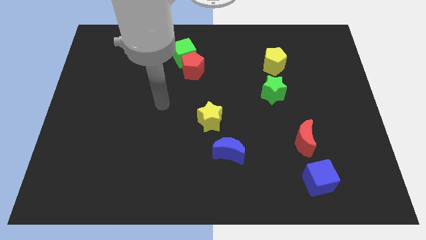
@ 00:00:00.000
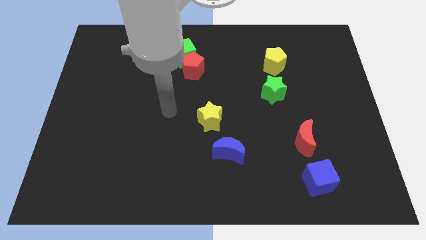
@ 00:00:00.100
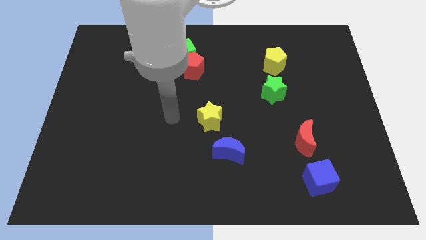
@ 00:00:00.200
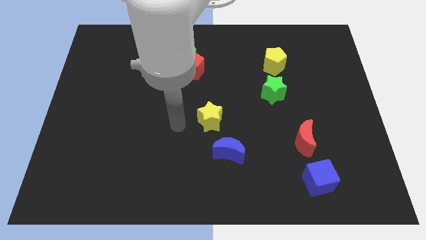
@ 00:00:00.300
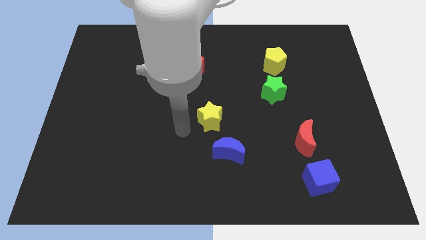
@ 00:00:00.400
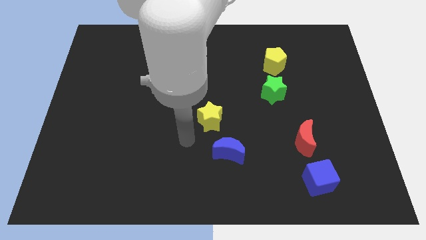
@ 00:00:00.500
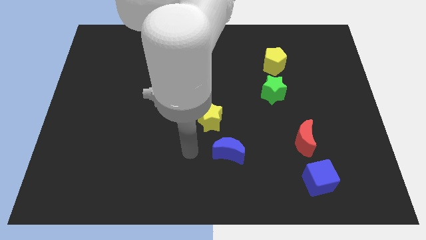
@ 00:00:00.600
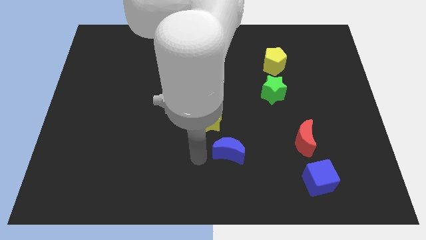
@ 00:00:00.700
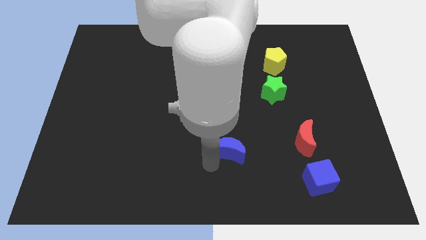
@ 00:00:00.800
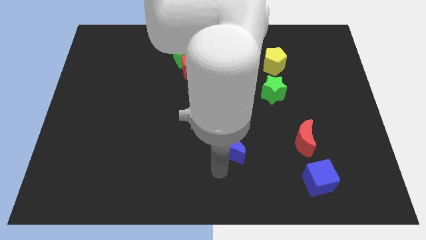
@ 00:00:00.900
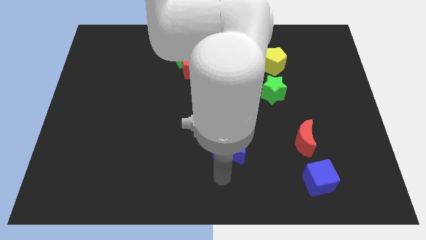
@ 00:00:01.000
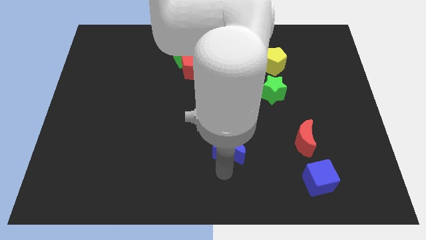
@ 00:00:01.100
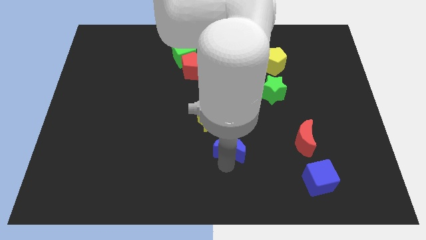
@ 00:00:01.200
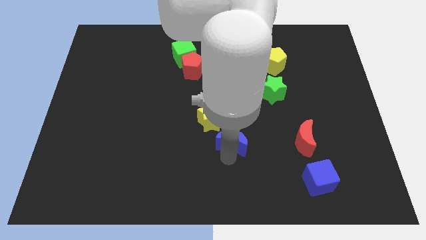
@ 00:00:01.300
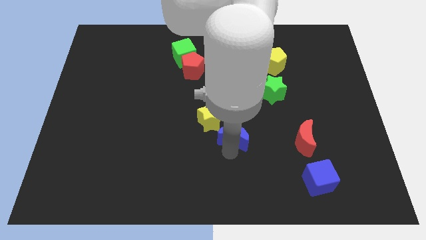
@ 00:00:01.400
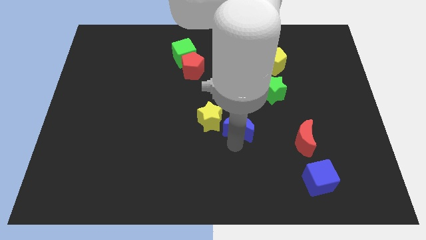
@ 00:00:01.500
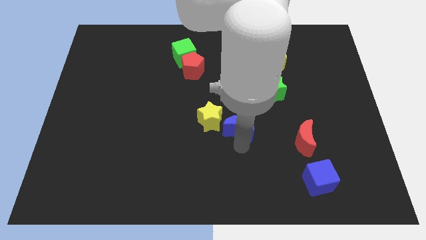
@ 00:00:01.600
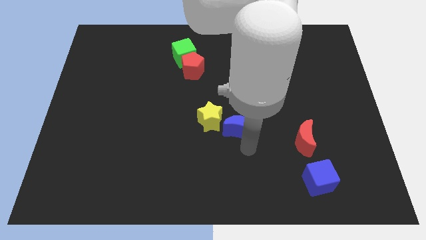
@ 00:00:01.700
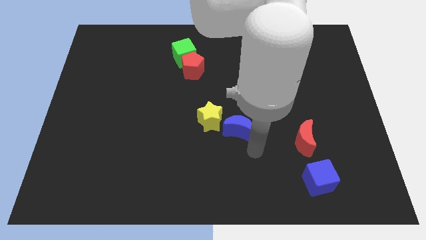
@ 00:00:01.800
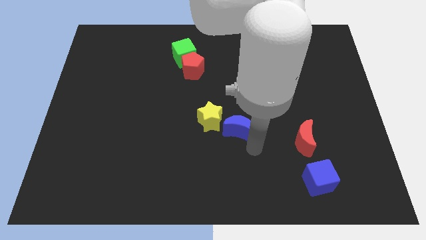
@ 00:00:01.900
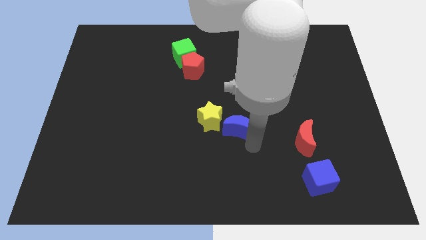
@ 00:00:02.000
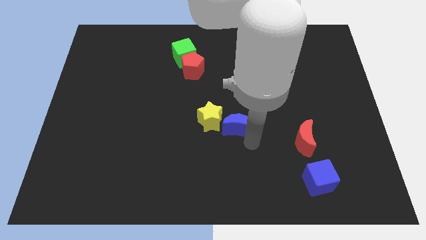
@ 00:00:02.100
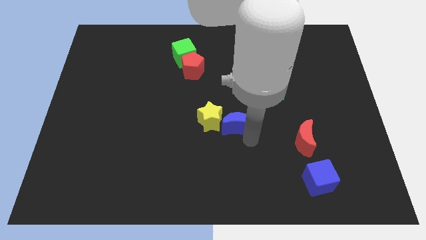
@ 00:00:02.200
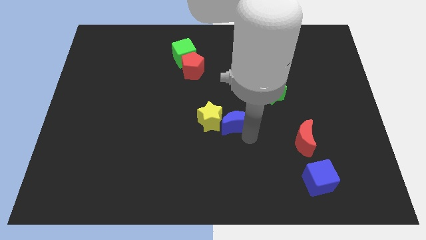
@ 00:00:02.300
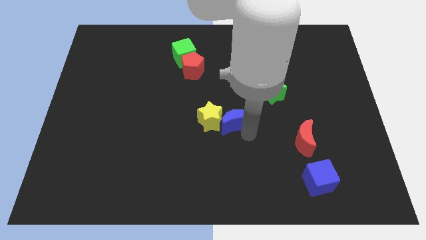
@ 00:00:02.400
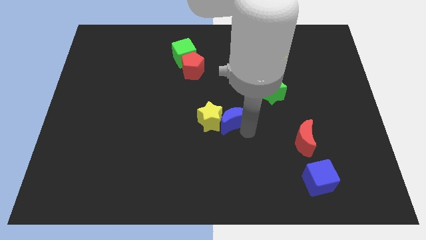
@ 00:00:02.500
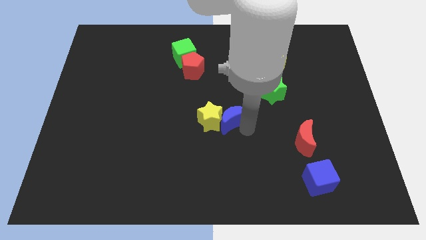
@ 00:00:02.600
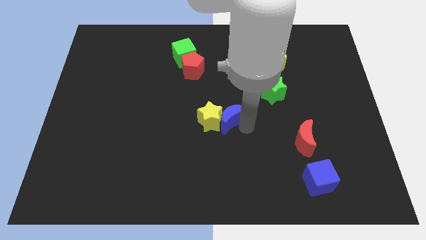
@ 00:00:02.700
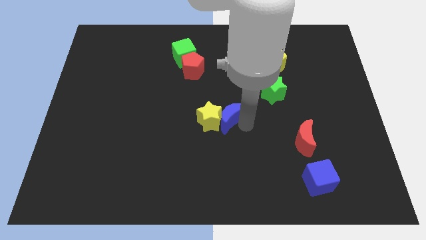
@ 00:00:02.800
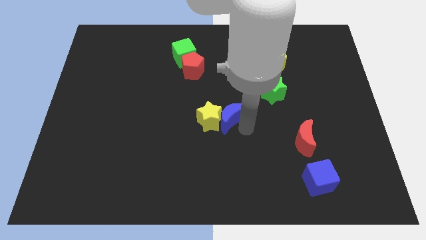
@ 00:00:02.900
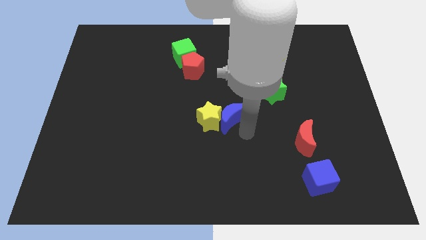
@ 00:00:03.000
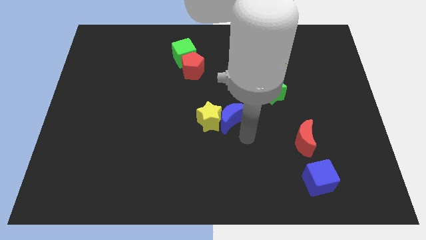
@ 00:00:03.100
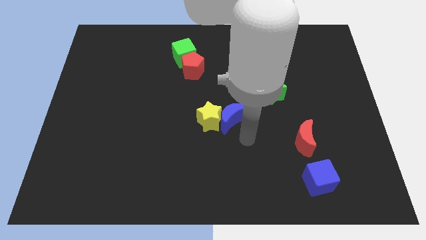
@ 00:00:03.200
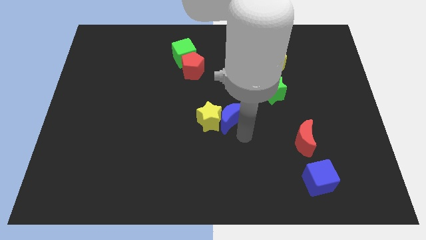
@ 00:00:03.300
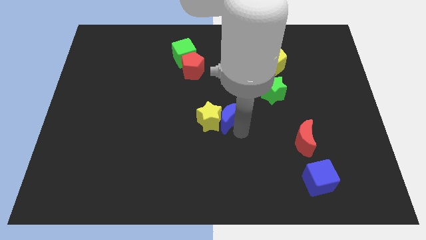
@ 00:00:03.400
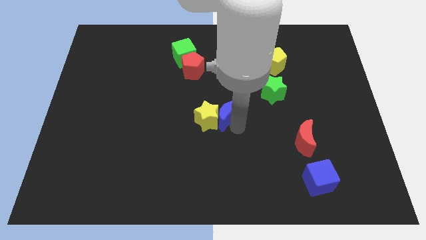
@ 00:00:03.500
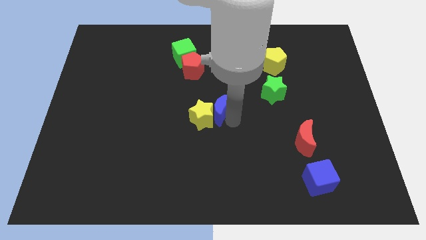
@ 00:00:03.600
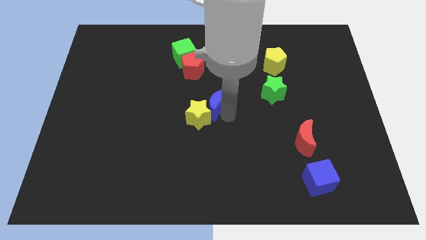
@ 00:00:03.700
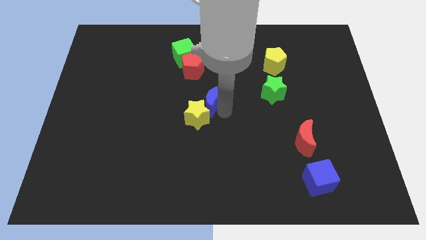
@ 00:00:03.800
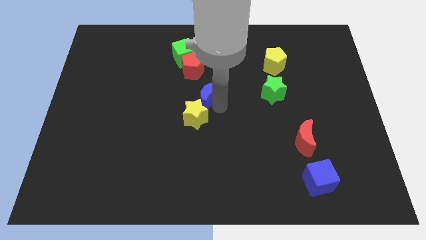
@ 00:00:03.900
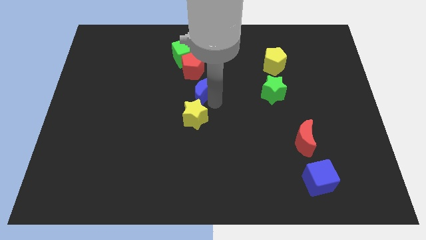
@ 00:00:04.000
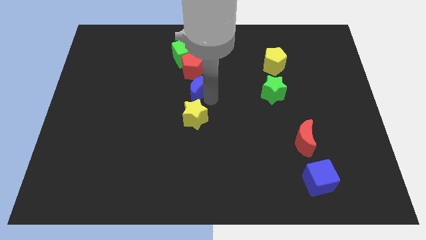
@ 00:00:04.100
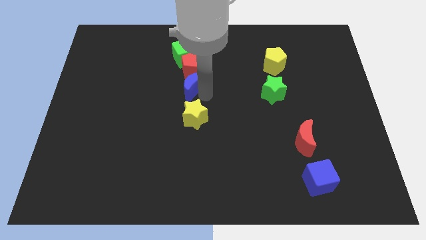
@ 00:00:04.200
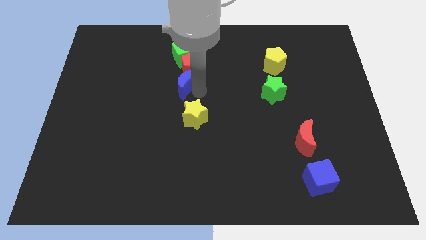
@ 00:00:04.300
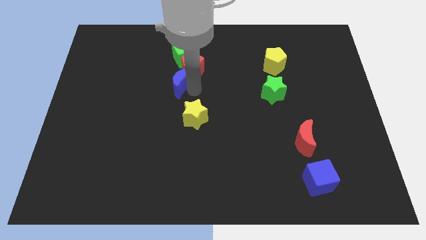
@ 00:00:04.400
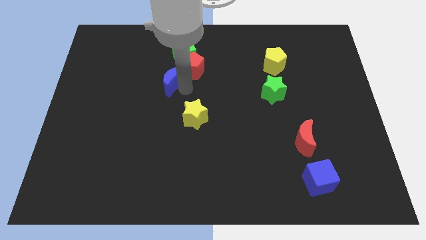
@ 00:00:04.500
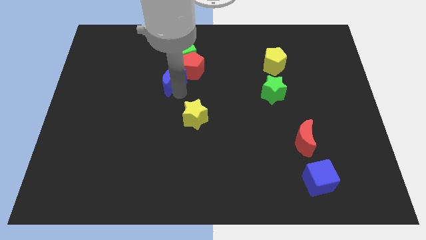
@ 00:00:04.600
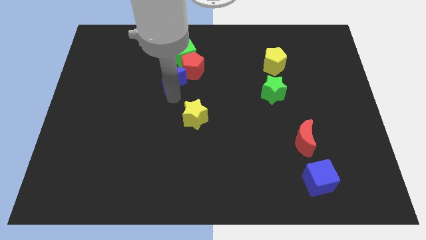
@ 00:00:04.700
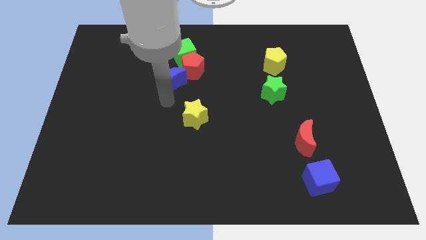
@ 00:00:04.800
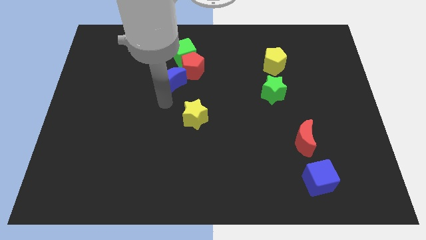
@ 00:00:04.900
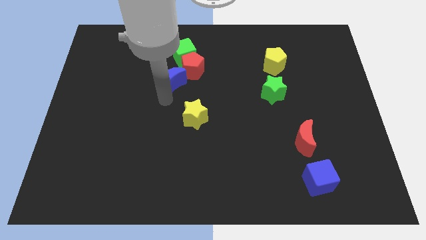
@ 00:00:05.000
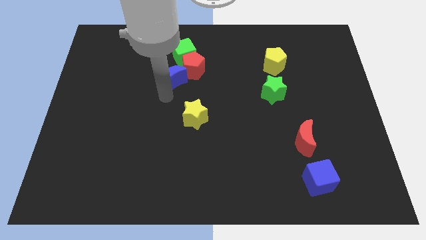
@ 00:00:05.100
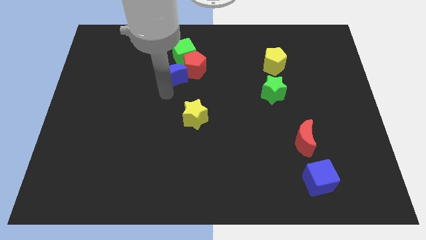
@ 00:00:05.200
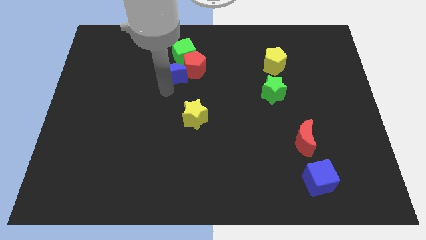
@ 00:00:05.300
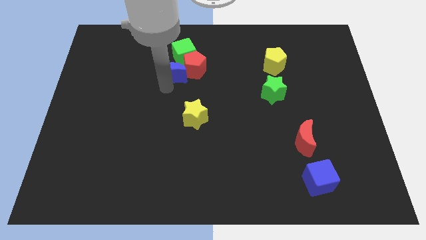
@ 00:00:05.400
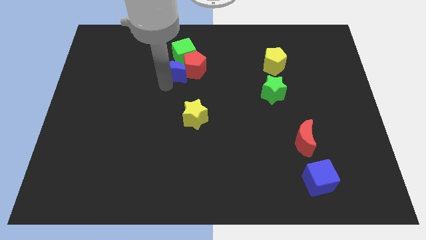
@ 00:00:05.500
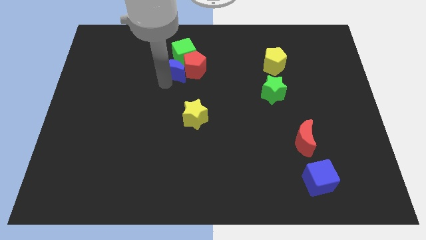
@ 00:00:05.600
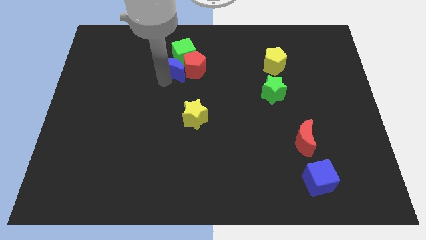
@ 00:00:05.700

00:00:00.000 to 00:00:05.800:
move the blue moon next to the green cube

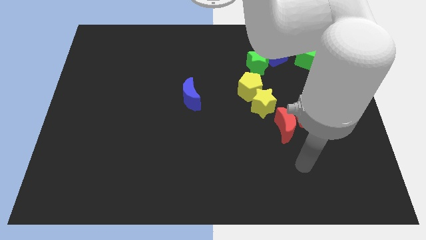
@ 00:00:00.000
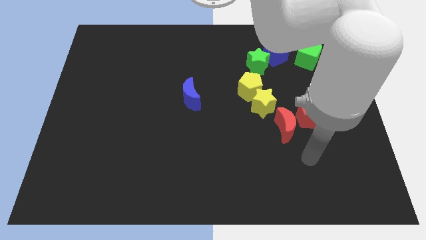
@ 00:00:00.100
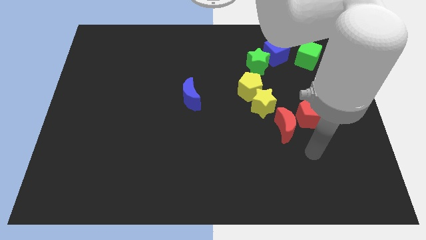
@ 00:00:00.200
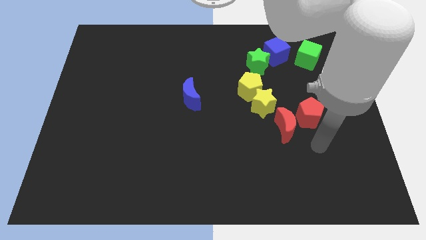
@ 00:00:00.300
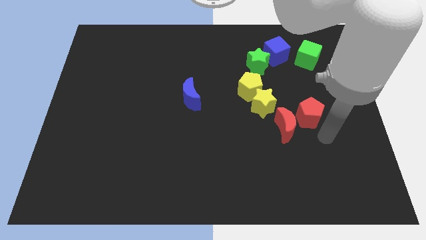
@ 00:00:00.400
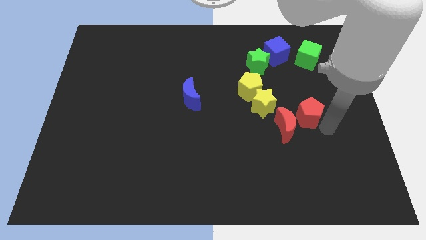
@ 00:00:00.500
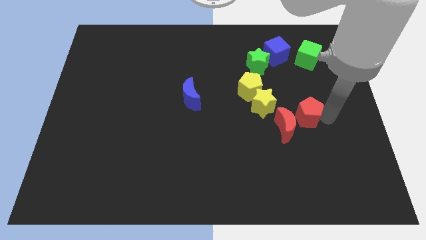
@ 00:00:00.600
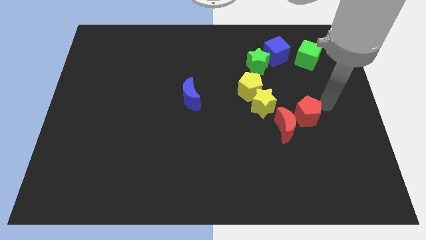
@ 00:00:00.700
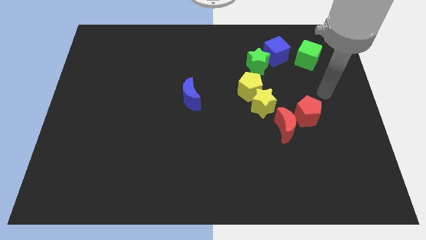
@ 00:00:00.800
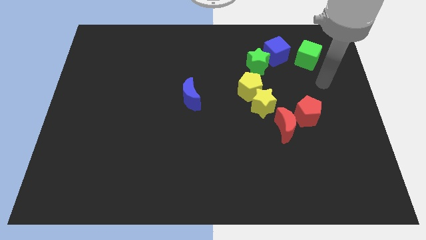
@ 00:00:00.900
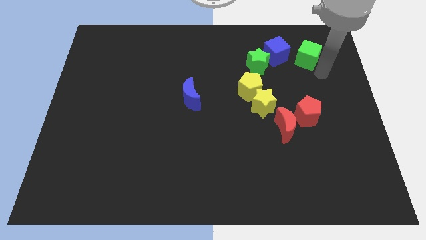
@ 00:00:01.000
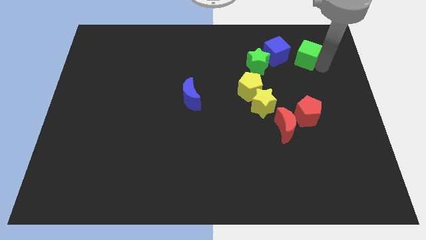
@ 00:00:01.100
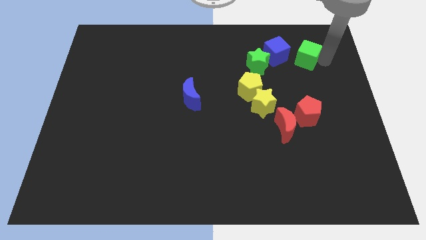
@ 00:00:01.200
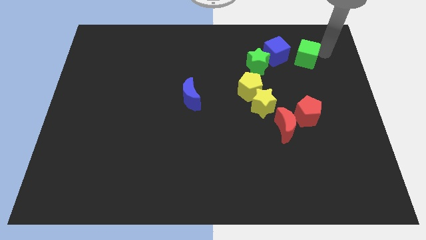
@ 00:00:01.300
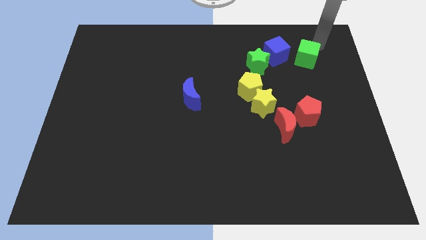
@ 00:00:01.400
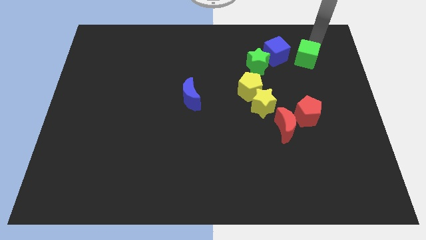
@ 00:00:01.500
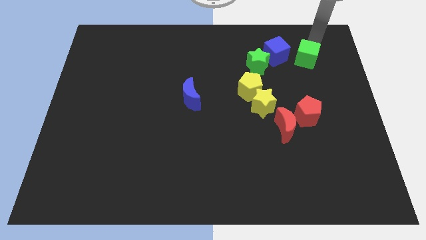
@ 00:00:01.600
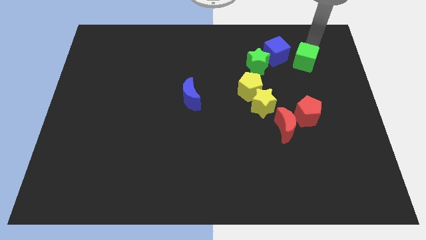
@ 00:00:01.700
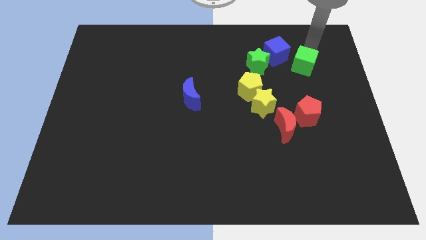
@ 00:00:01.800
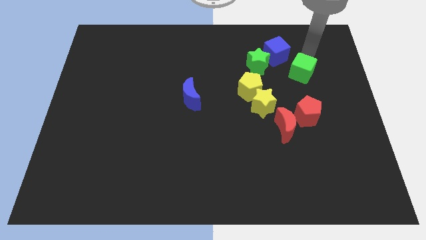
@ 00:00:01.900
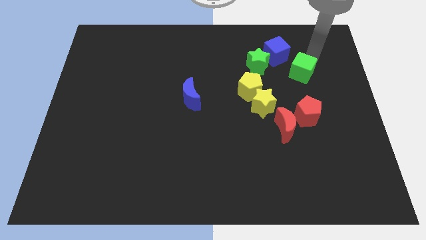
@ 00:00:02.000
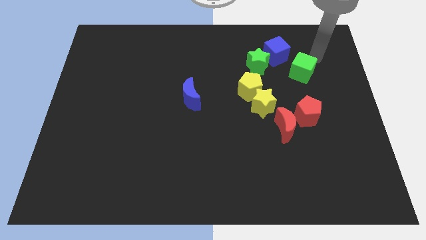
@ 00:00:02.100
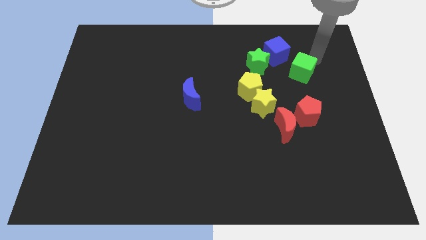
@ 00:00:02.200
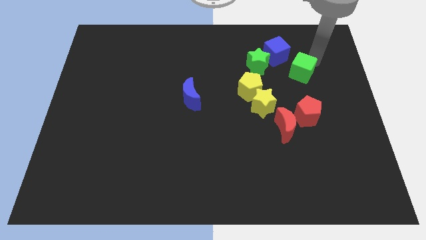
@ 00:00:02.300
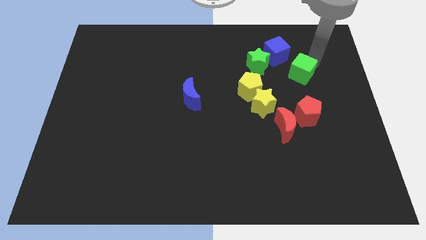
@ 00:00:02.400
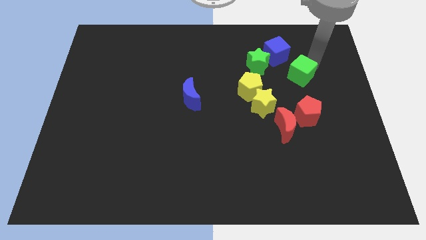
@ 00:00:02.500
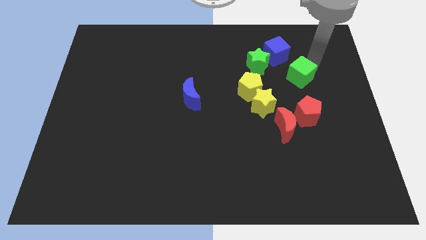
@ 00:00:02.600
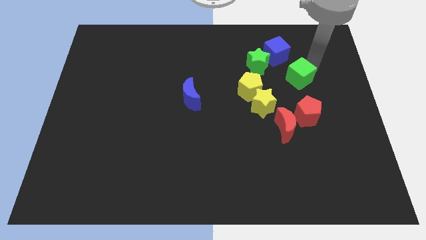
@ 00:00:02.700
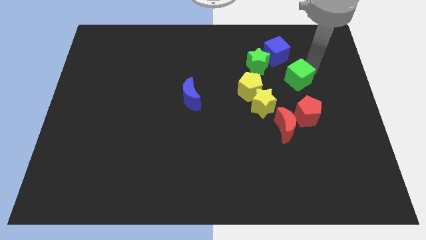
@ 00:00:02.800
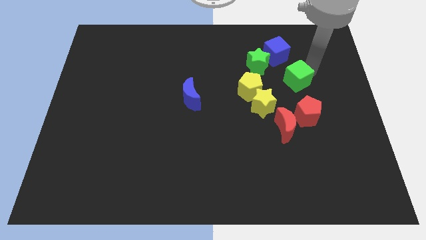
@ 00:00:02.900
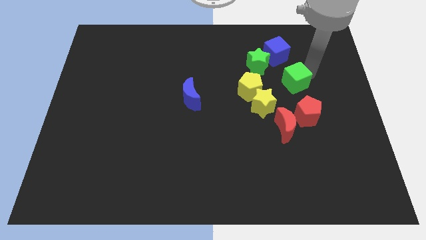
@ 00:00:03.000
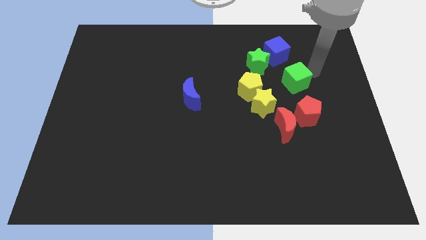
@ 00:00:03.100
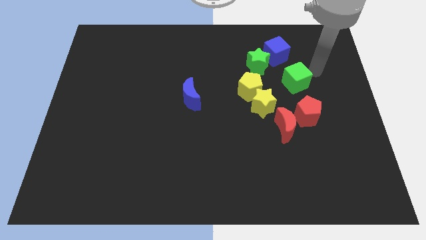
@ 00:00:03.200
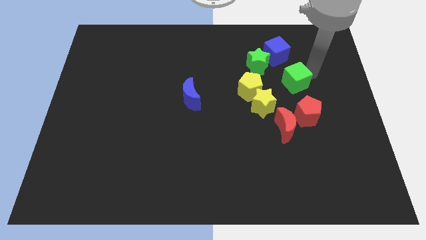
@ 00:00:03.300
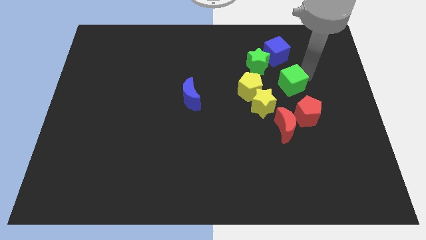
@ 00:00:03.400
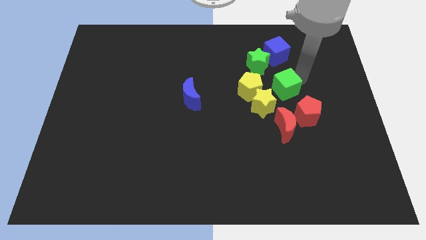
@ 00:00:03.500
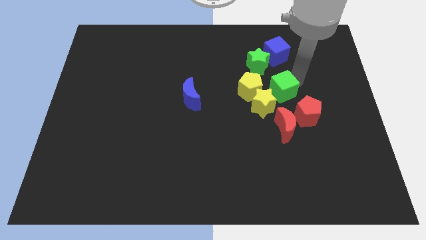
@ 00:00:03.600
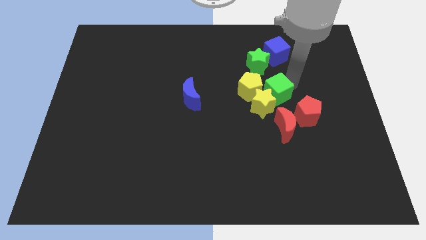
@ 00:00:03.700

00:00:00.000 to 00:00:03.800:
push the green cube next to the yellow star
